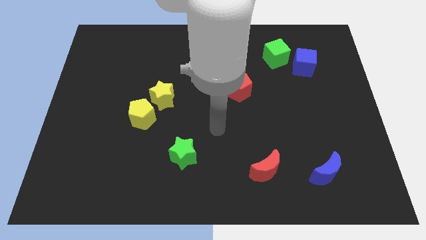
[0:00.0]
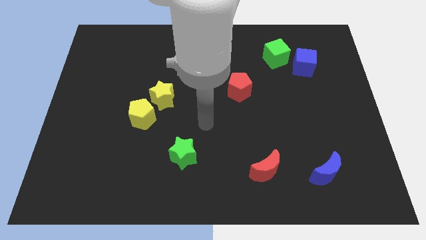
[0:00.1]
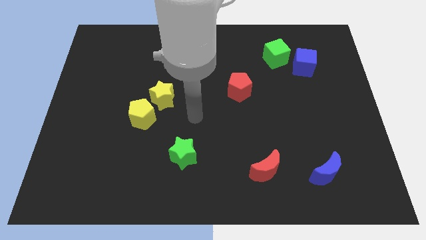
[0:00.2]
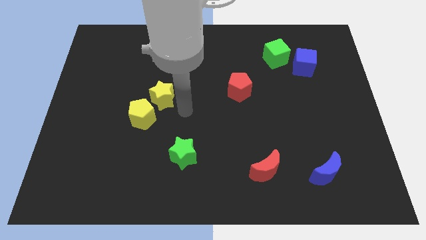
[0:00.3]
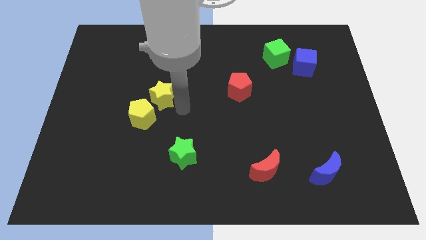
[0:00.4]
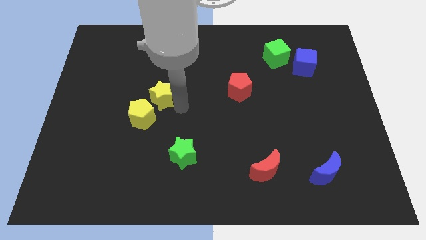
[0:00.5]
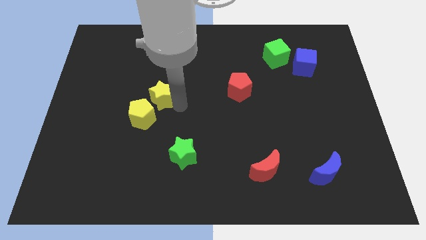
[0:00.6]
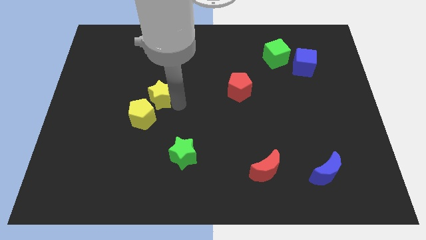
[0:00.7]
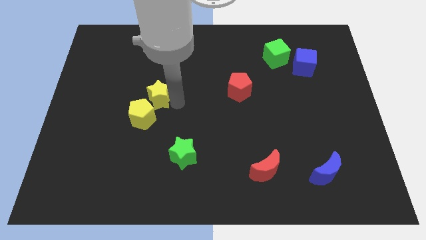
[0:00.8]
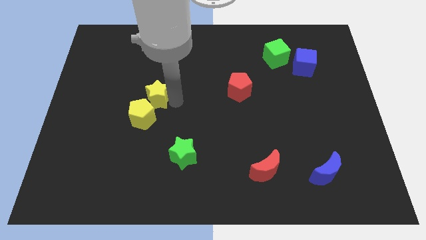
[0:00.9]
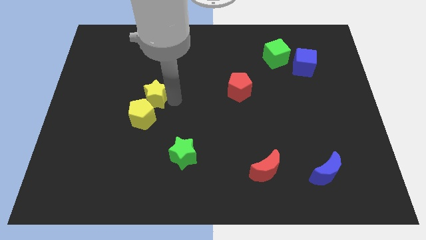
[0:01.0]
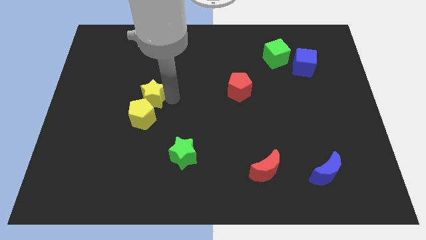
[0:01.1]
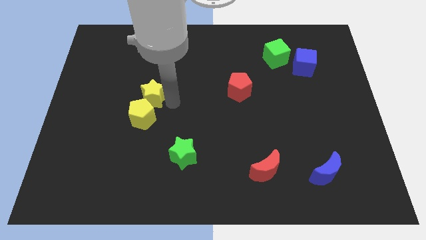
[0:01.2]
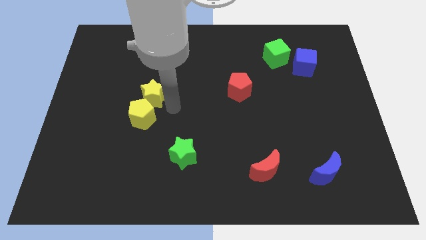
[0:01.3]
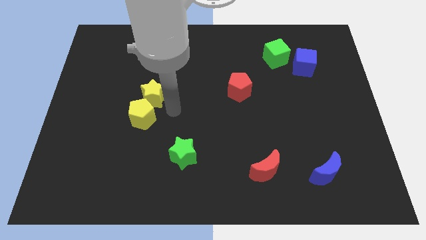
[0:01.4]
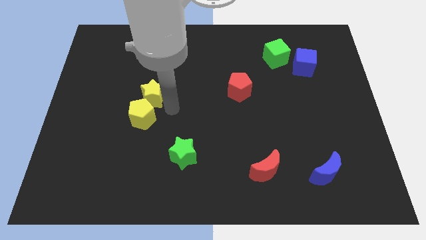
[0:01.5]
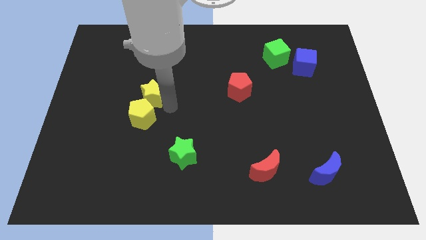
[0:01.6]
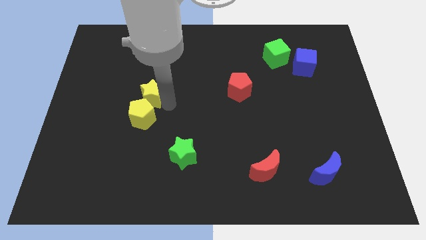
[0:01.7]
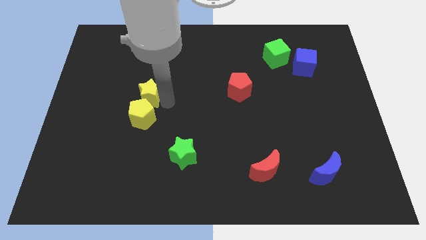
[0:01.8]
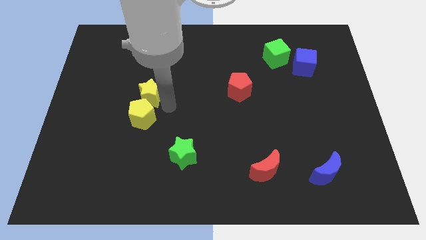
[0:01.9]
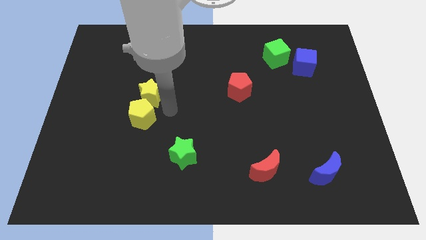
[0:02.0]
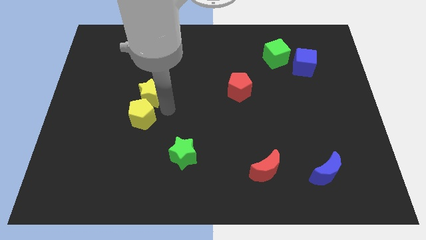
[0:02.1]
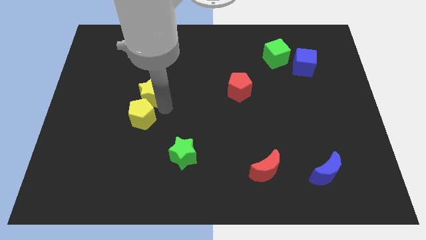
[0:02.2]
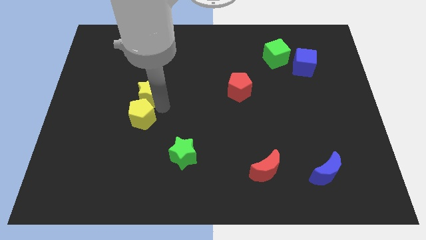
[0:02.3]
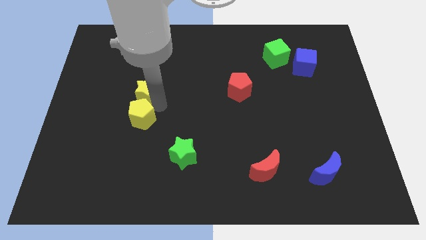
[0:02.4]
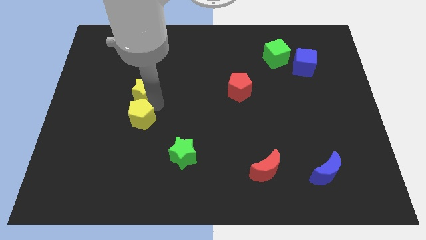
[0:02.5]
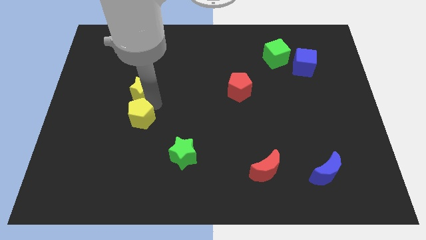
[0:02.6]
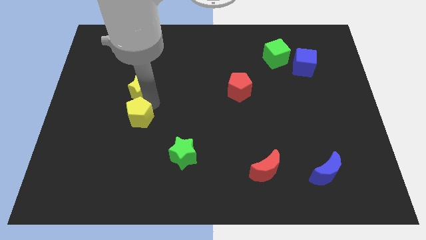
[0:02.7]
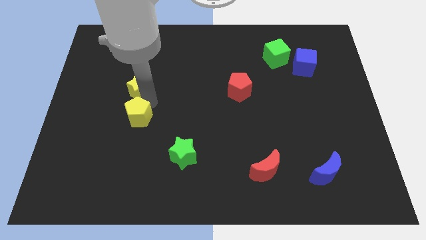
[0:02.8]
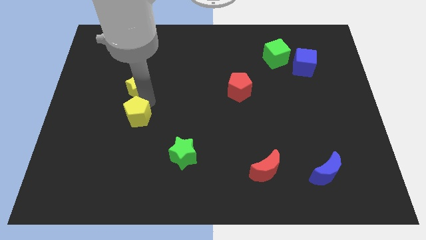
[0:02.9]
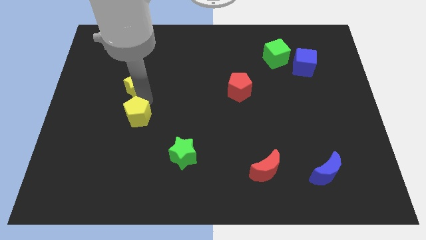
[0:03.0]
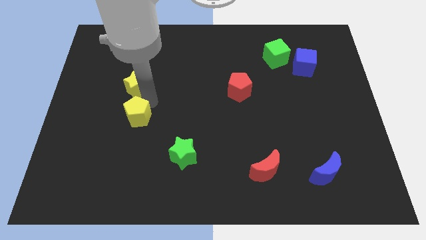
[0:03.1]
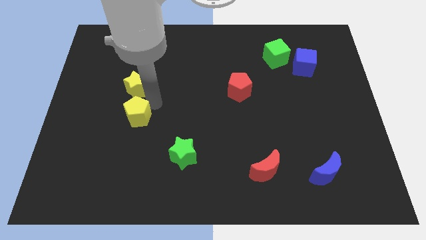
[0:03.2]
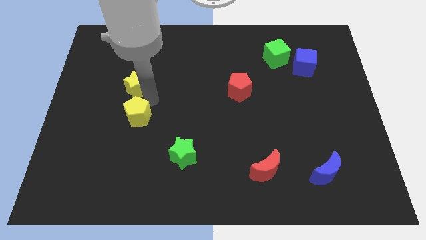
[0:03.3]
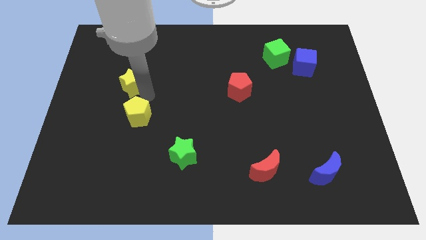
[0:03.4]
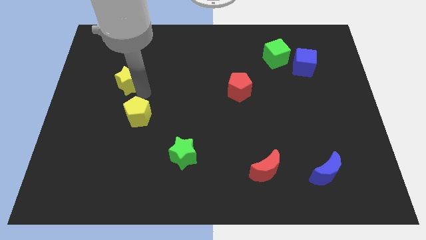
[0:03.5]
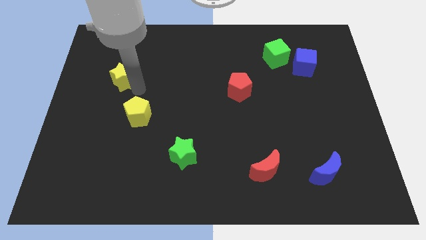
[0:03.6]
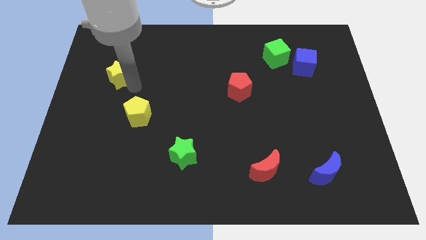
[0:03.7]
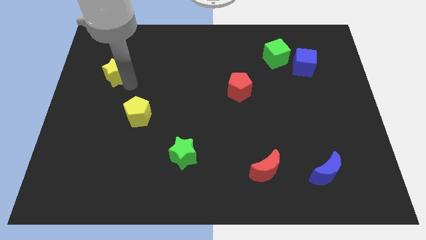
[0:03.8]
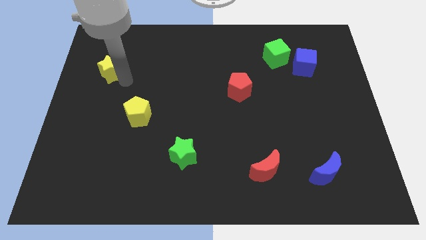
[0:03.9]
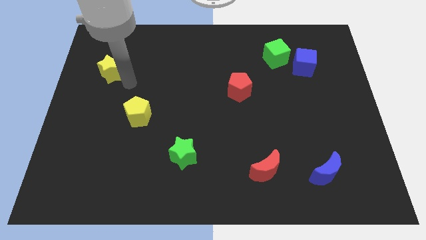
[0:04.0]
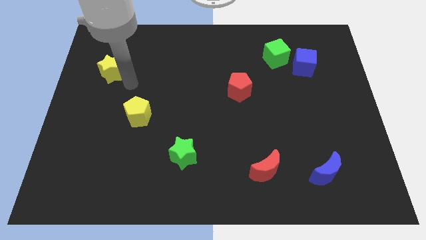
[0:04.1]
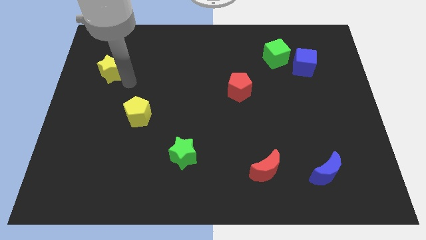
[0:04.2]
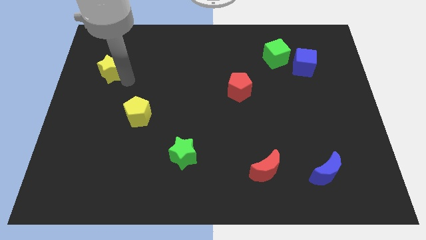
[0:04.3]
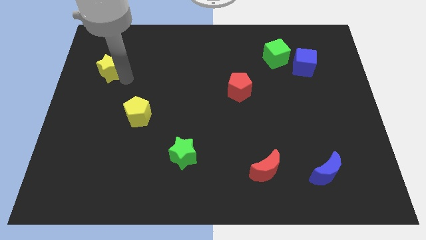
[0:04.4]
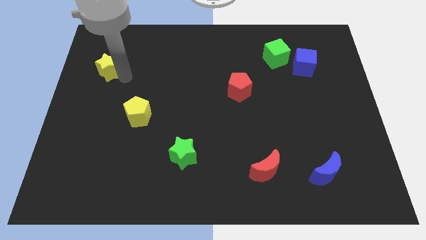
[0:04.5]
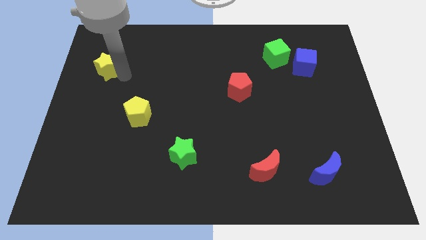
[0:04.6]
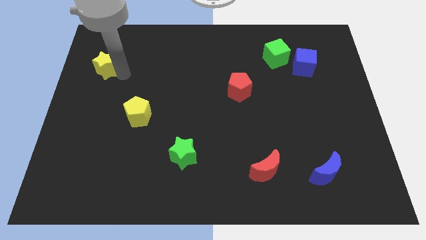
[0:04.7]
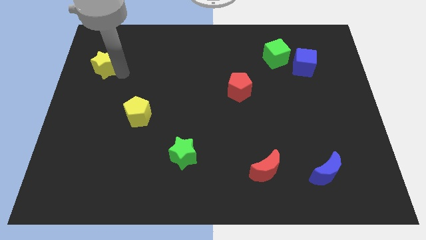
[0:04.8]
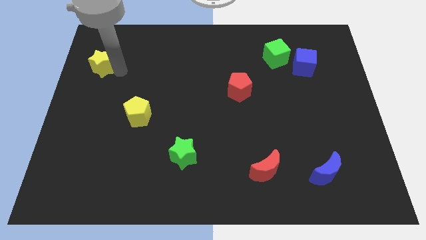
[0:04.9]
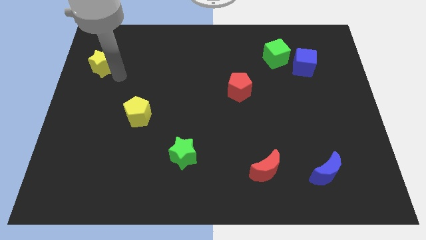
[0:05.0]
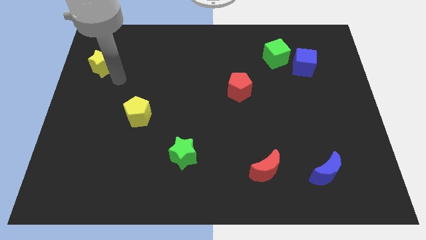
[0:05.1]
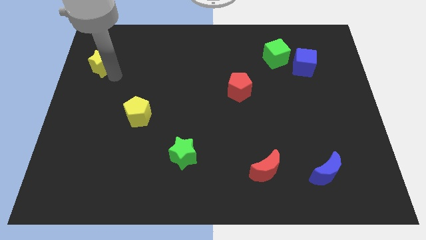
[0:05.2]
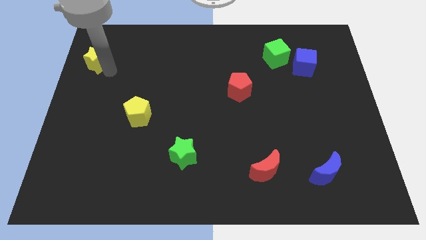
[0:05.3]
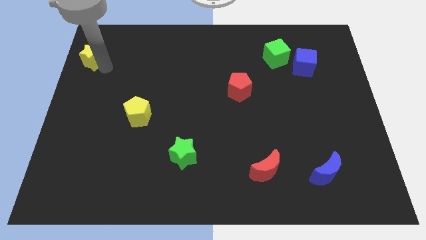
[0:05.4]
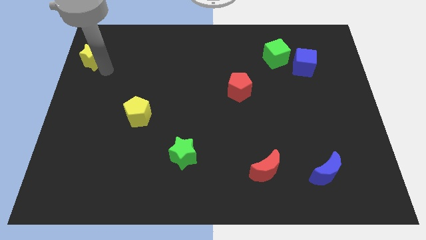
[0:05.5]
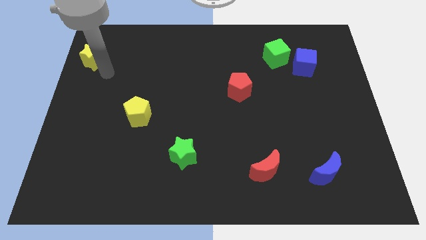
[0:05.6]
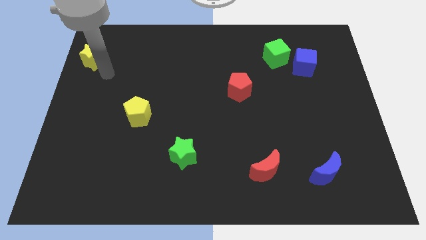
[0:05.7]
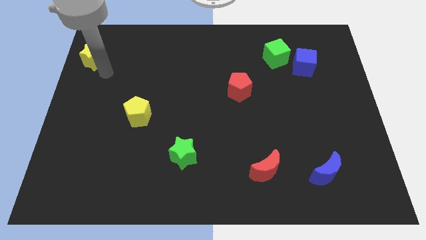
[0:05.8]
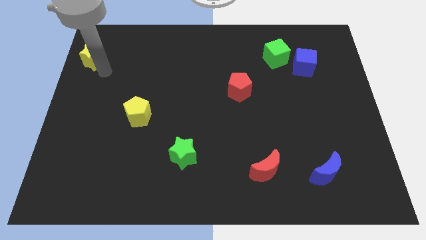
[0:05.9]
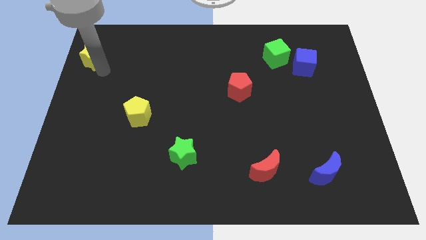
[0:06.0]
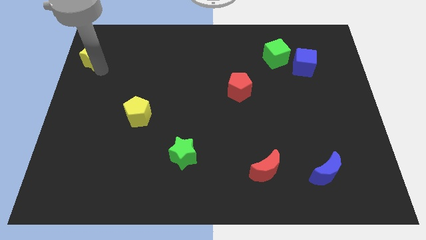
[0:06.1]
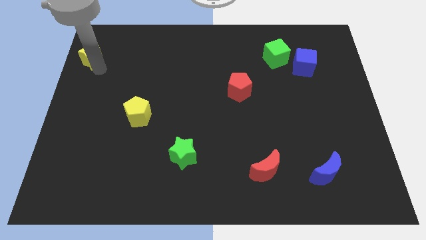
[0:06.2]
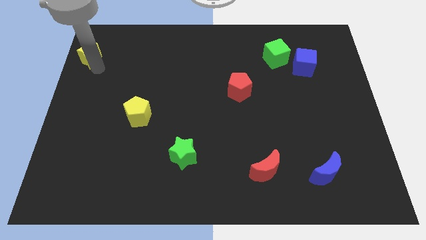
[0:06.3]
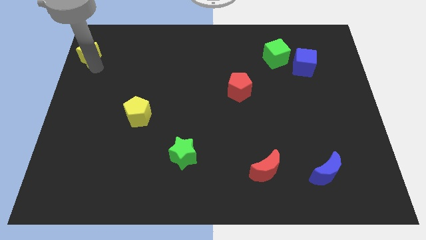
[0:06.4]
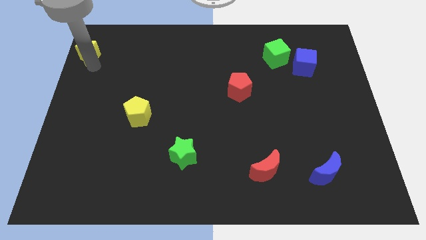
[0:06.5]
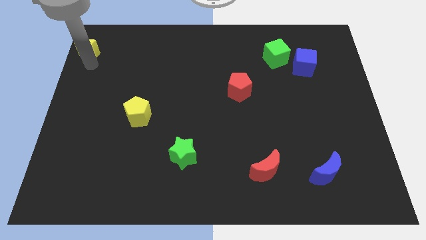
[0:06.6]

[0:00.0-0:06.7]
slide the yellow star to the upper left corner
